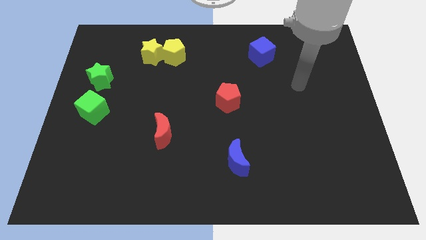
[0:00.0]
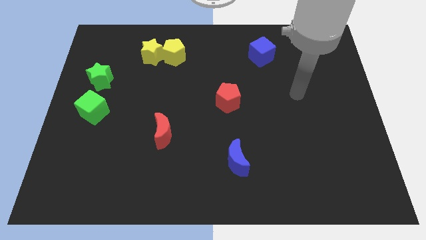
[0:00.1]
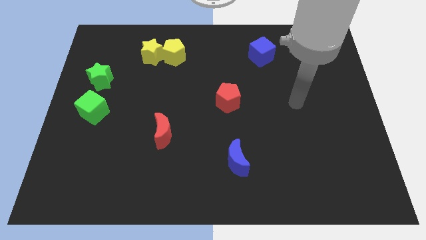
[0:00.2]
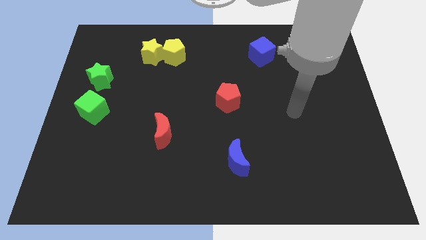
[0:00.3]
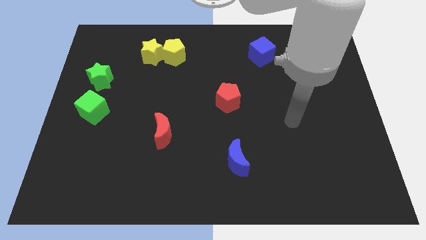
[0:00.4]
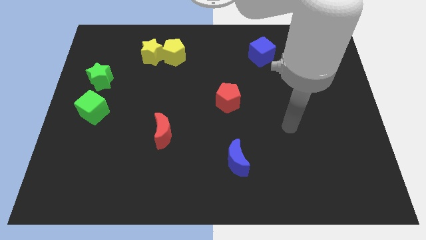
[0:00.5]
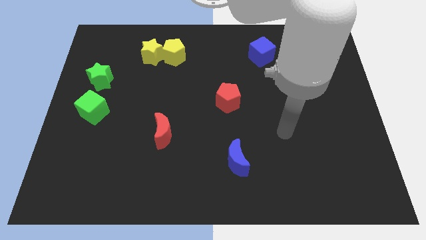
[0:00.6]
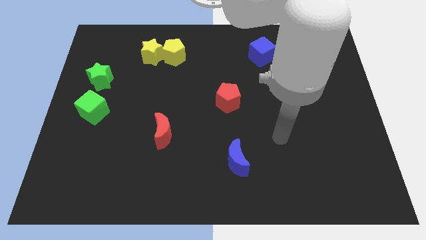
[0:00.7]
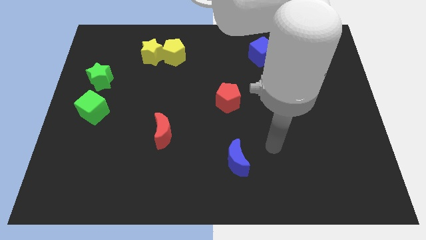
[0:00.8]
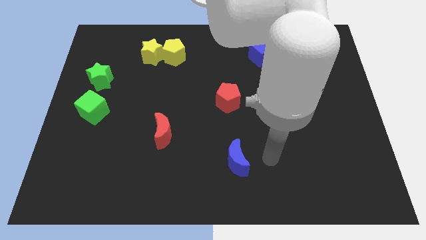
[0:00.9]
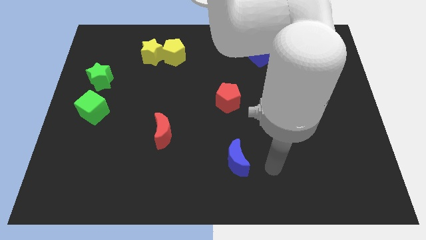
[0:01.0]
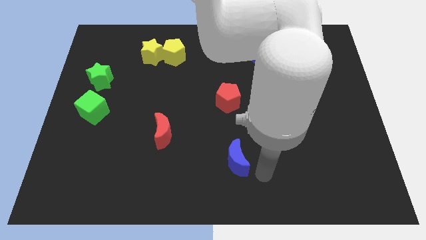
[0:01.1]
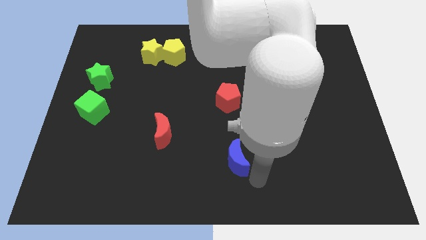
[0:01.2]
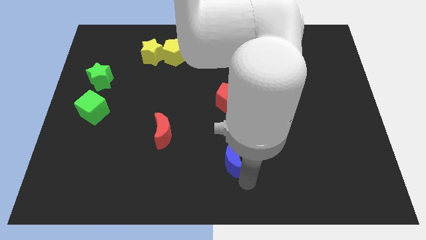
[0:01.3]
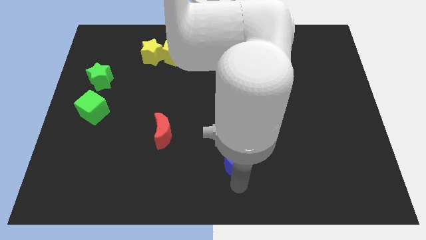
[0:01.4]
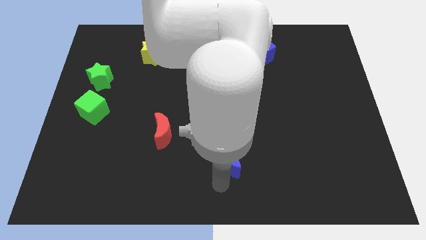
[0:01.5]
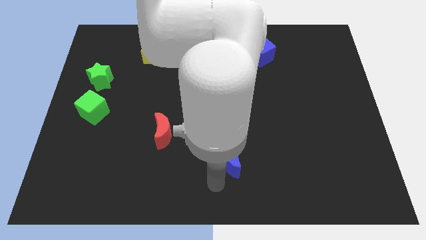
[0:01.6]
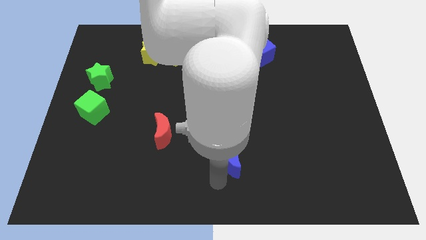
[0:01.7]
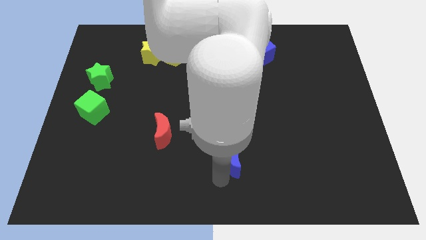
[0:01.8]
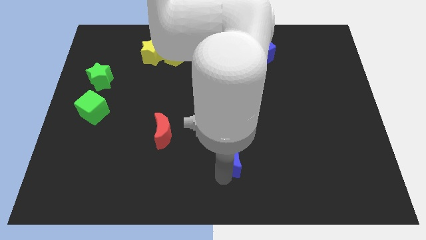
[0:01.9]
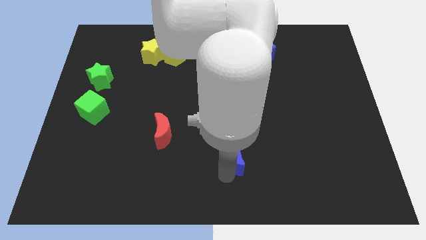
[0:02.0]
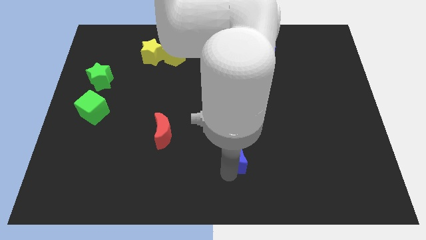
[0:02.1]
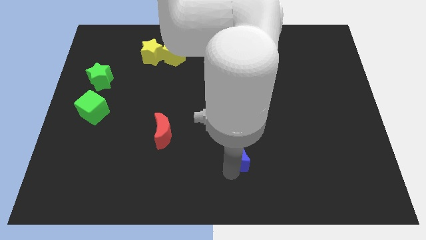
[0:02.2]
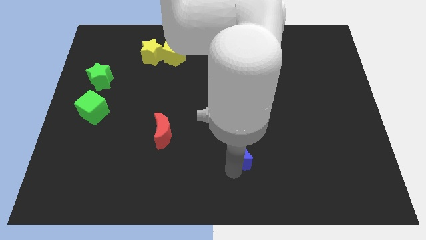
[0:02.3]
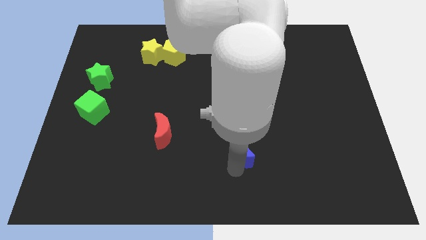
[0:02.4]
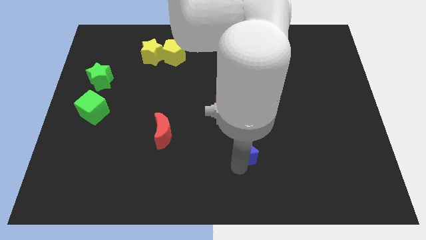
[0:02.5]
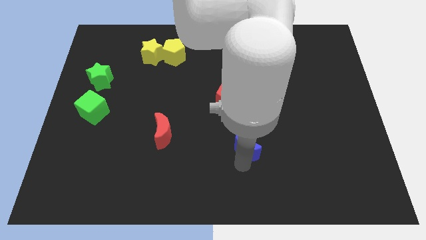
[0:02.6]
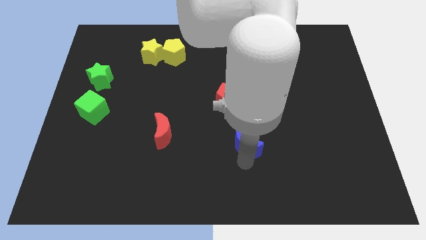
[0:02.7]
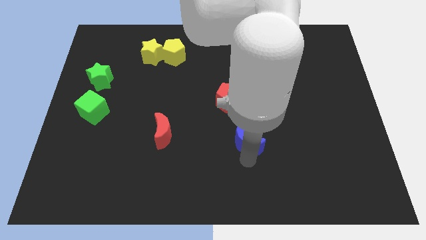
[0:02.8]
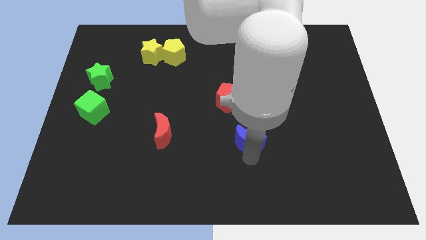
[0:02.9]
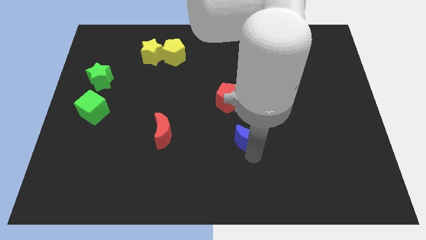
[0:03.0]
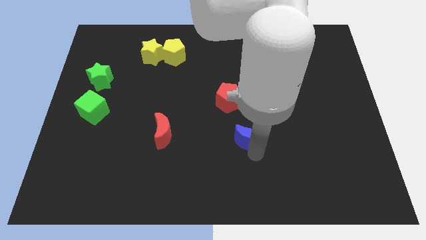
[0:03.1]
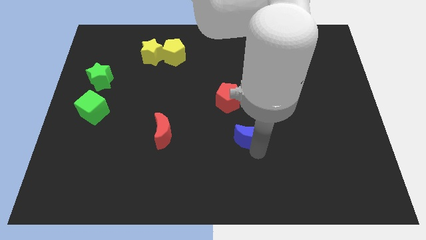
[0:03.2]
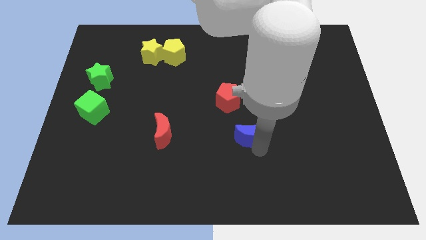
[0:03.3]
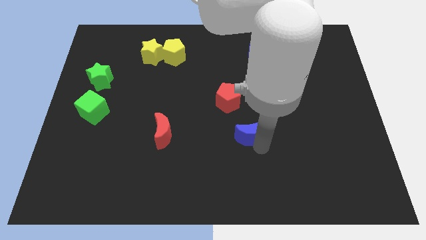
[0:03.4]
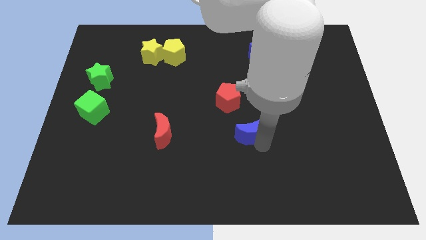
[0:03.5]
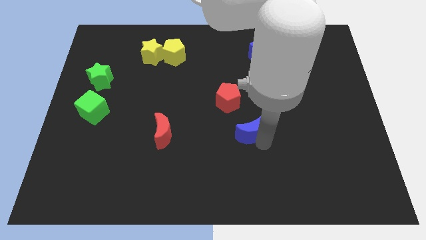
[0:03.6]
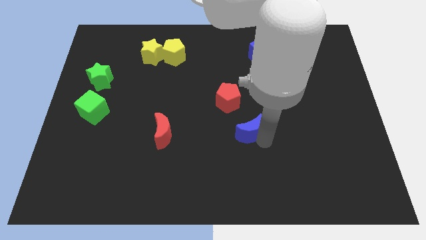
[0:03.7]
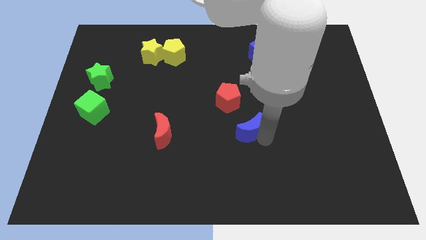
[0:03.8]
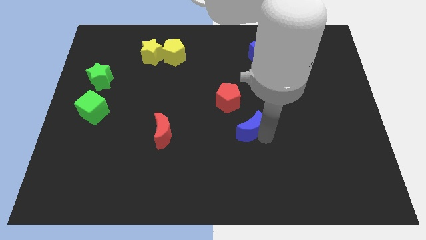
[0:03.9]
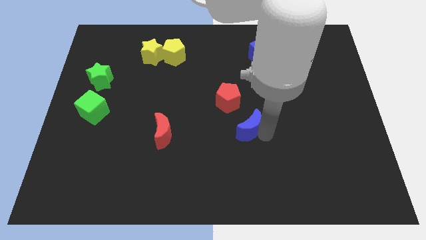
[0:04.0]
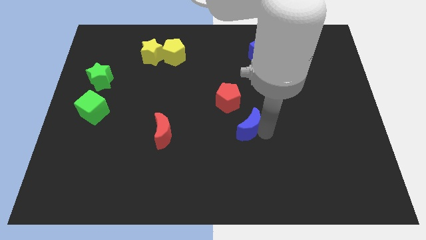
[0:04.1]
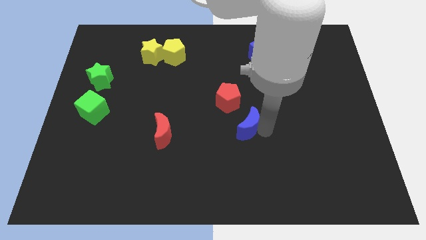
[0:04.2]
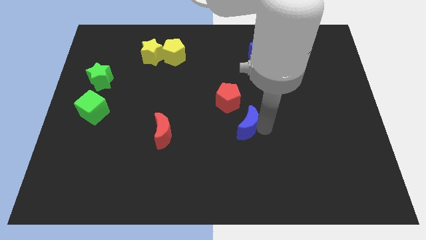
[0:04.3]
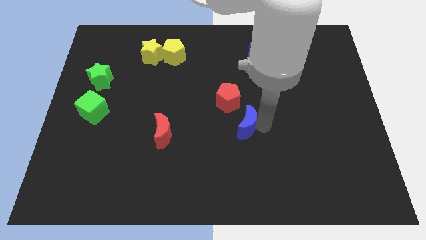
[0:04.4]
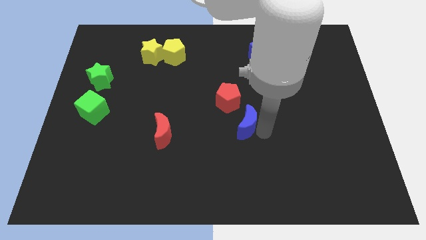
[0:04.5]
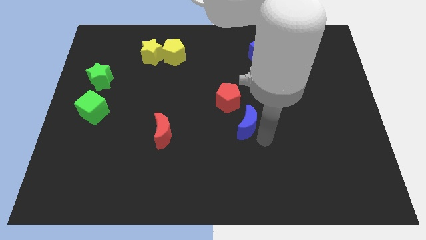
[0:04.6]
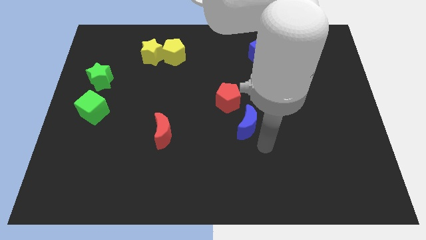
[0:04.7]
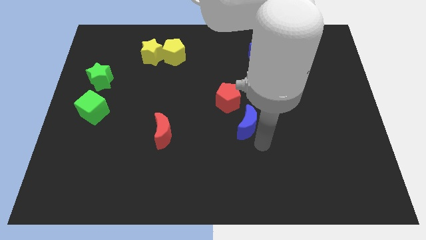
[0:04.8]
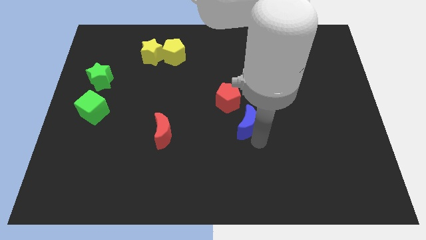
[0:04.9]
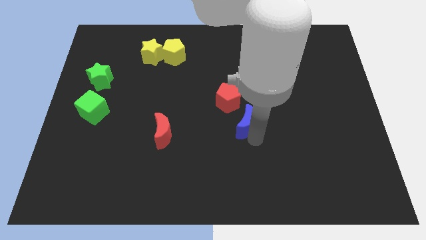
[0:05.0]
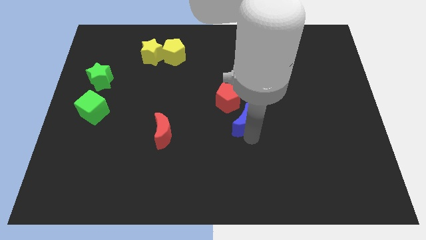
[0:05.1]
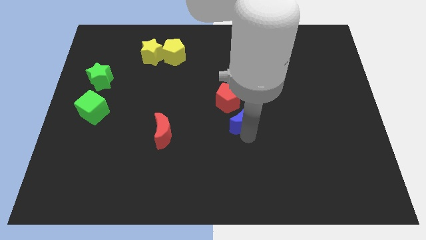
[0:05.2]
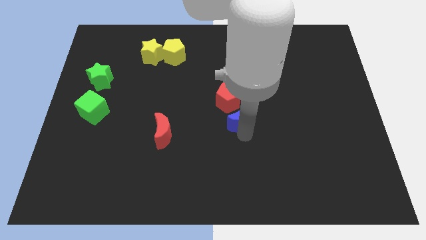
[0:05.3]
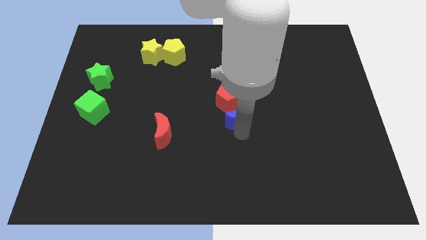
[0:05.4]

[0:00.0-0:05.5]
slide the blue moon next to the red pentagon

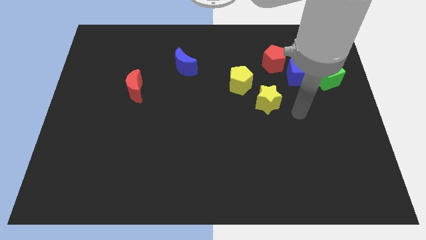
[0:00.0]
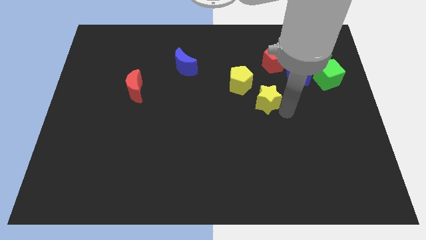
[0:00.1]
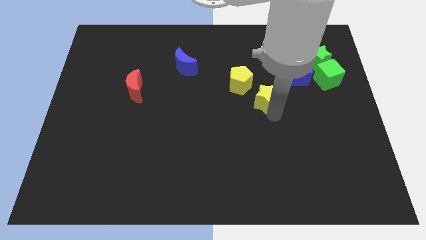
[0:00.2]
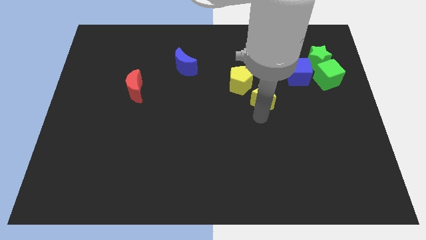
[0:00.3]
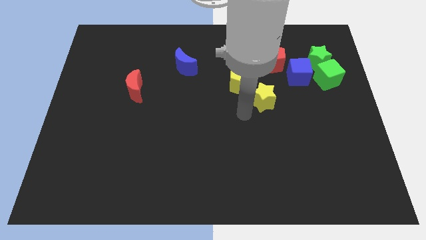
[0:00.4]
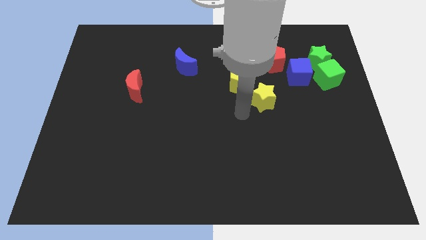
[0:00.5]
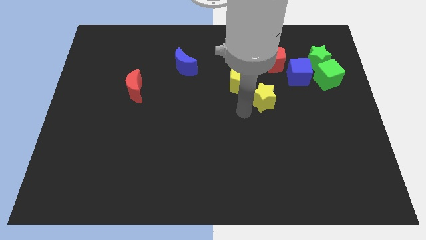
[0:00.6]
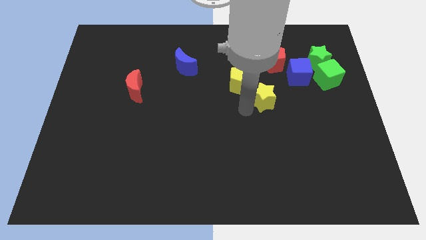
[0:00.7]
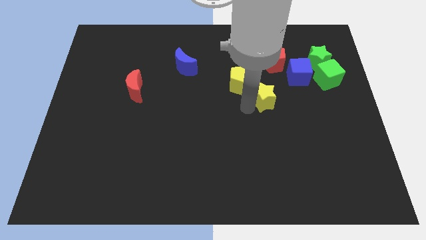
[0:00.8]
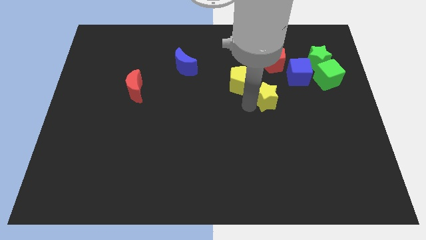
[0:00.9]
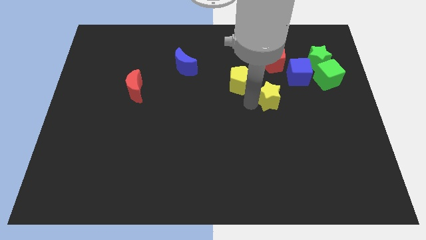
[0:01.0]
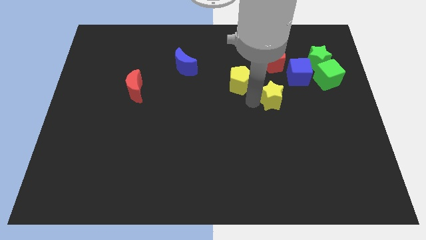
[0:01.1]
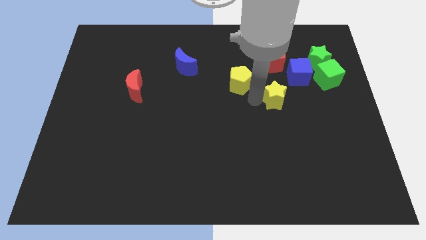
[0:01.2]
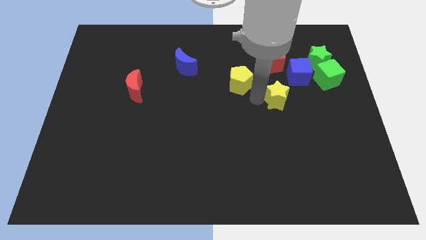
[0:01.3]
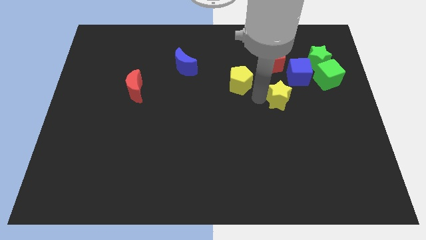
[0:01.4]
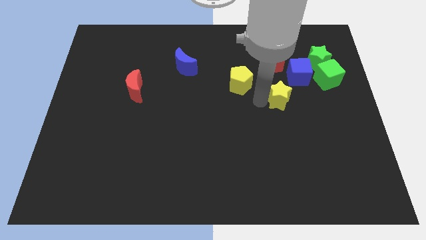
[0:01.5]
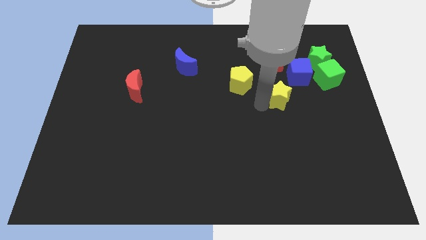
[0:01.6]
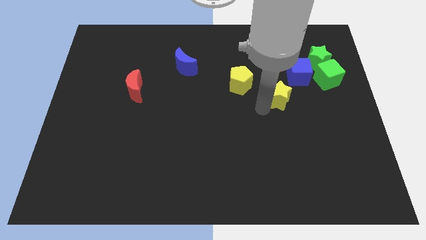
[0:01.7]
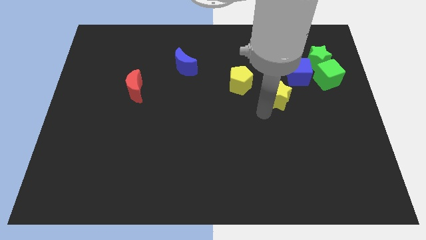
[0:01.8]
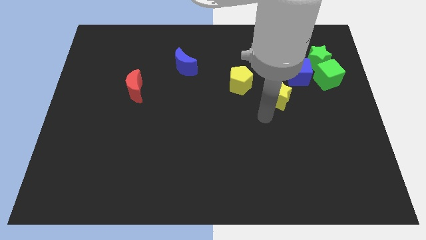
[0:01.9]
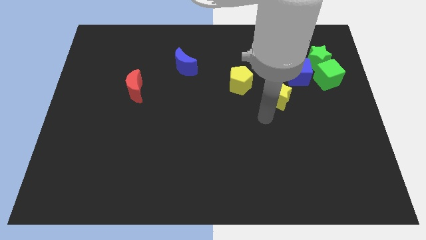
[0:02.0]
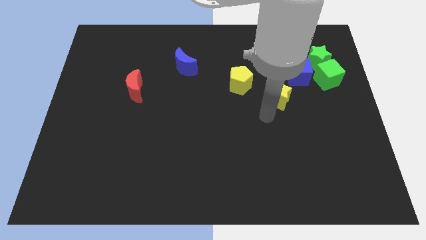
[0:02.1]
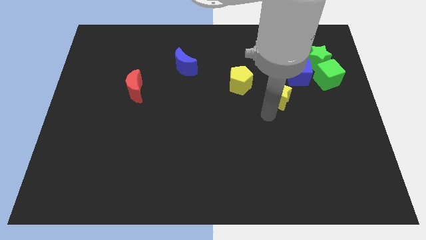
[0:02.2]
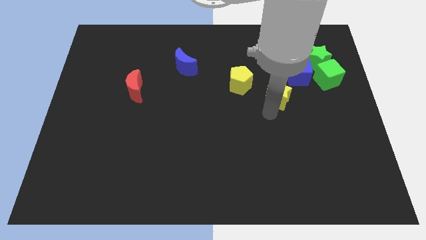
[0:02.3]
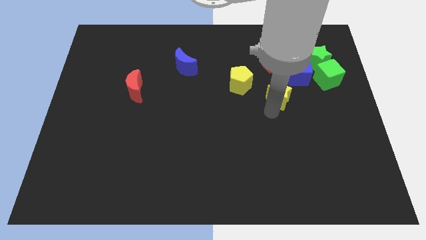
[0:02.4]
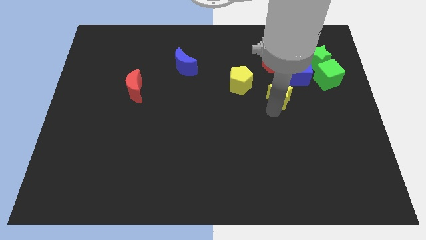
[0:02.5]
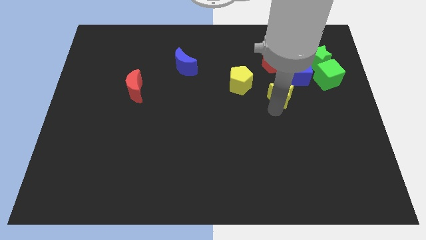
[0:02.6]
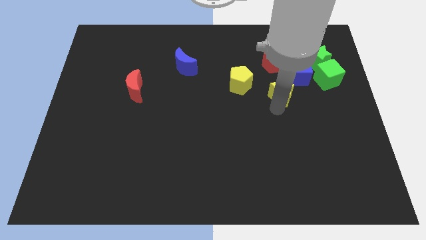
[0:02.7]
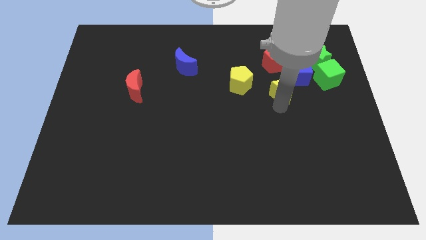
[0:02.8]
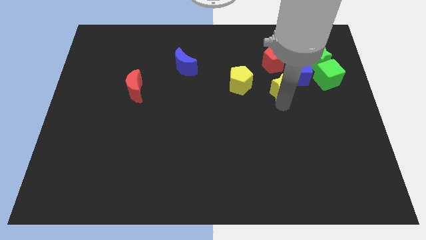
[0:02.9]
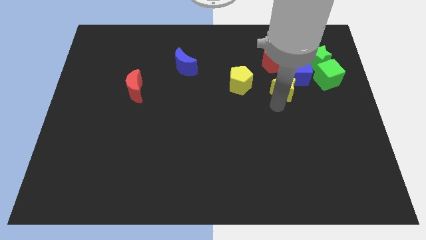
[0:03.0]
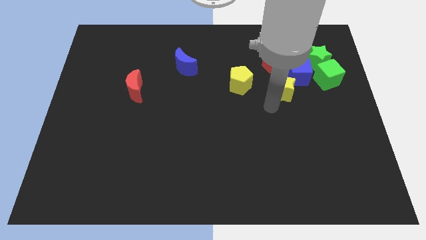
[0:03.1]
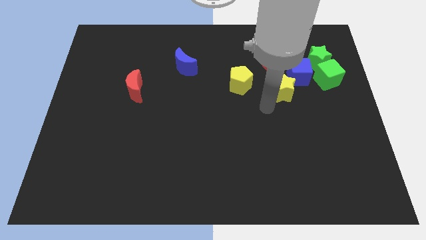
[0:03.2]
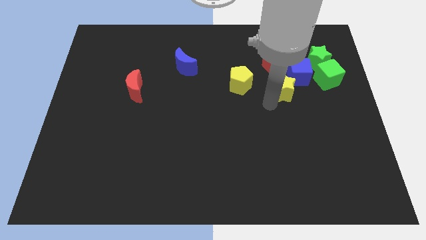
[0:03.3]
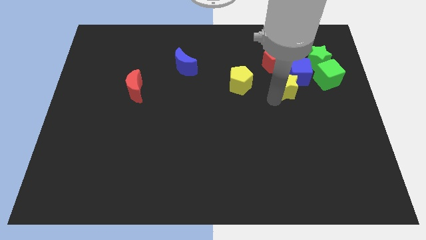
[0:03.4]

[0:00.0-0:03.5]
push the yellow star close to the blue cube
